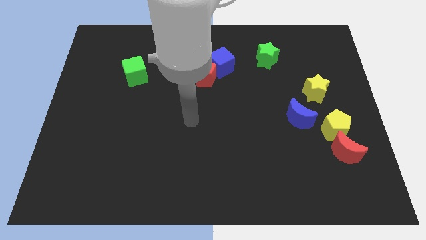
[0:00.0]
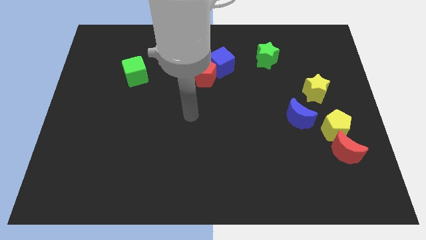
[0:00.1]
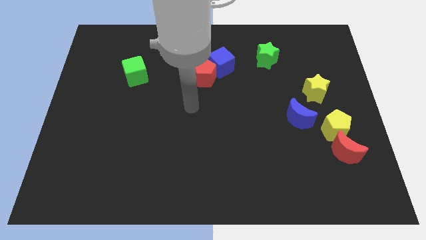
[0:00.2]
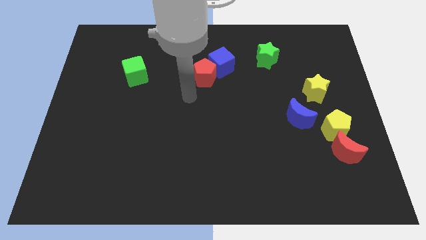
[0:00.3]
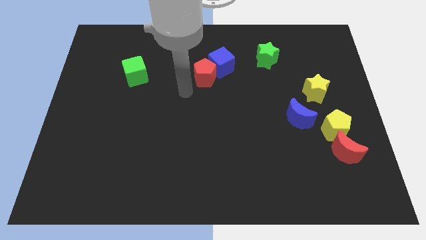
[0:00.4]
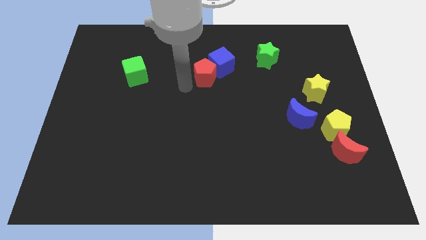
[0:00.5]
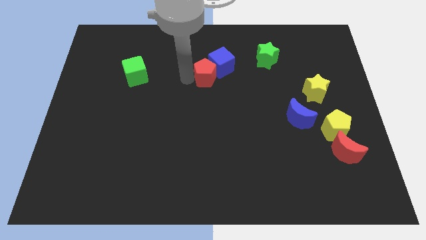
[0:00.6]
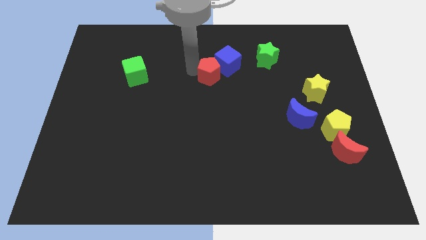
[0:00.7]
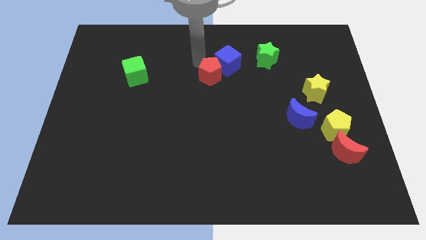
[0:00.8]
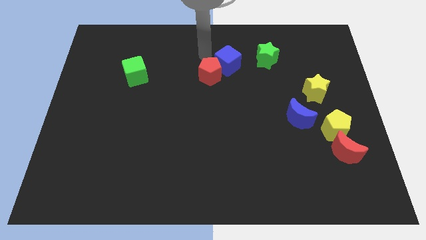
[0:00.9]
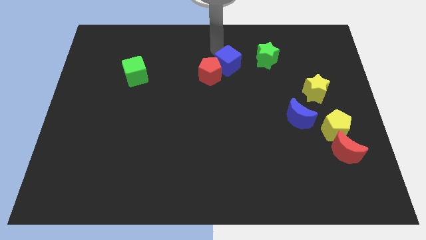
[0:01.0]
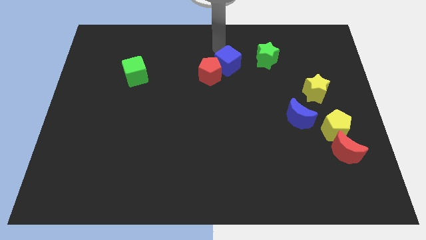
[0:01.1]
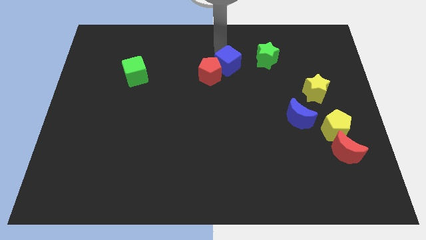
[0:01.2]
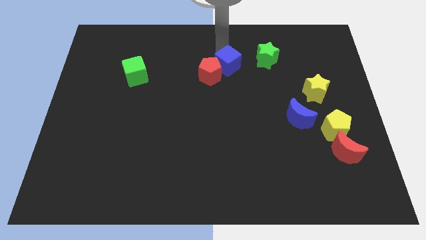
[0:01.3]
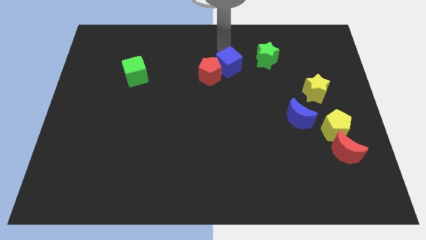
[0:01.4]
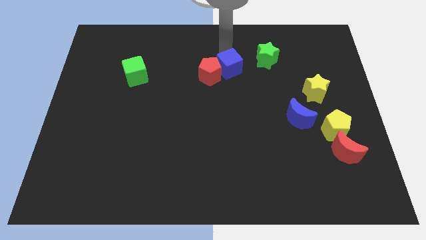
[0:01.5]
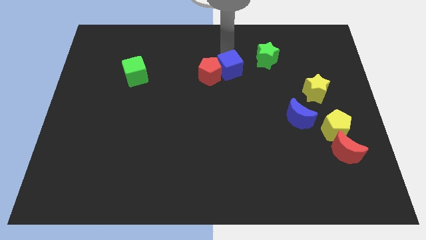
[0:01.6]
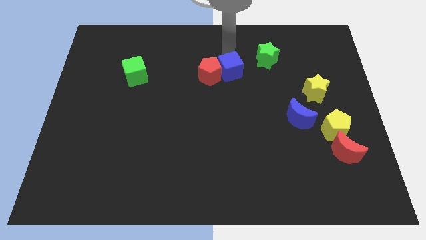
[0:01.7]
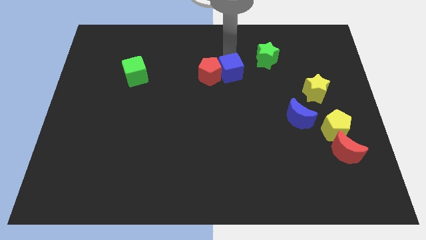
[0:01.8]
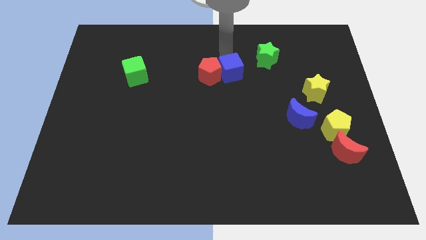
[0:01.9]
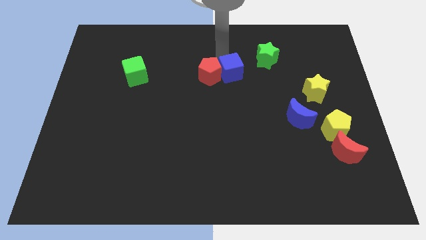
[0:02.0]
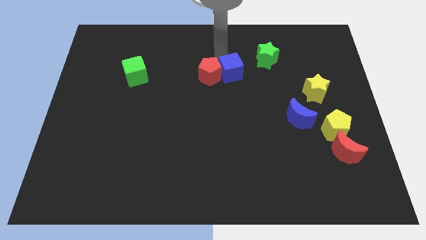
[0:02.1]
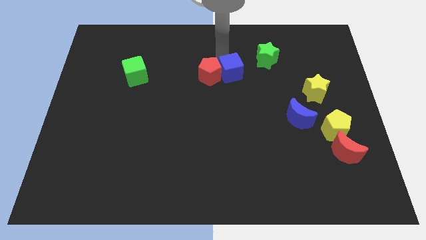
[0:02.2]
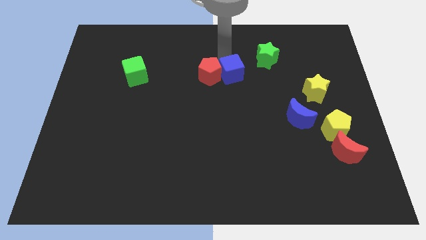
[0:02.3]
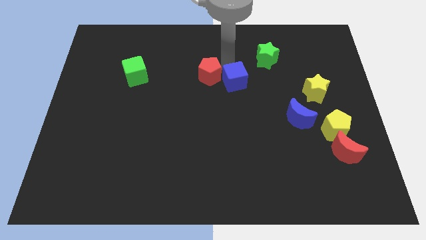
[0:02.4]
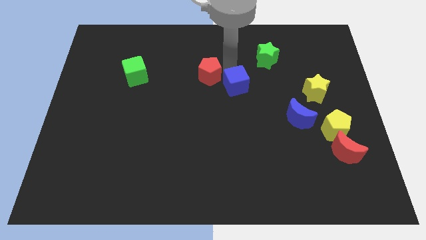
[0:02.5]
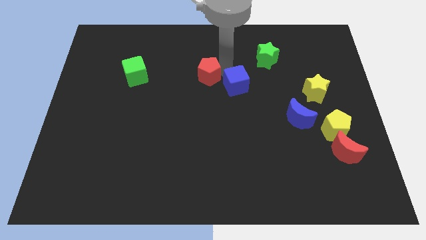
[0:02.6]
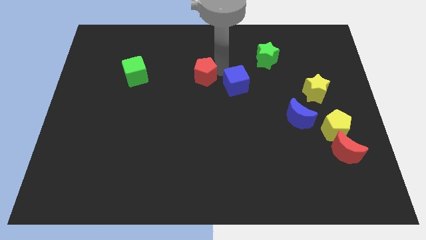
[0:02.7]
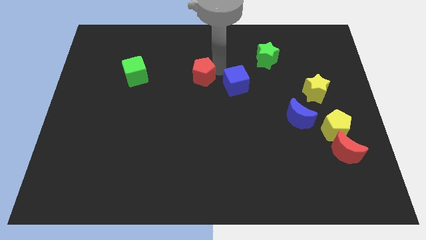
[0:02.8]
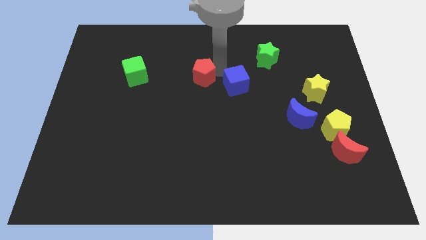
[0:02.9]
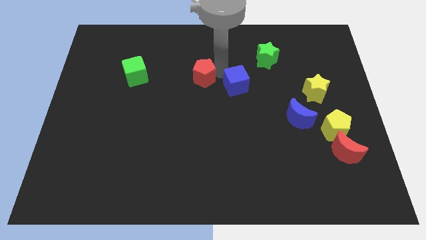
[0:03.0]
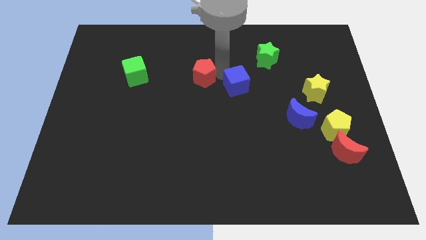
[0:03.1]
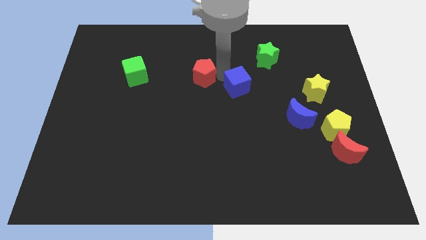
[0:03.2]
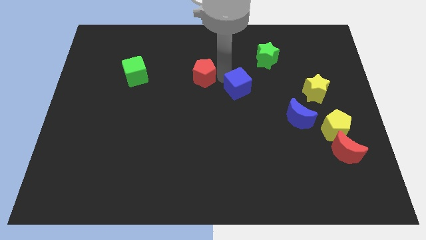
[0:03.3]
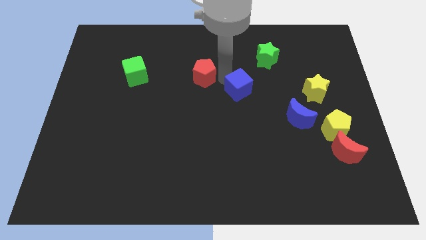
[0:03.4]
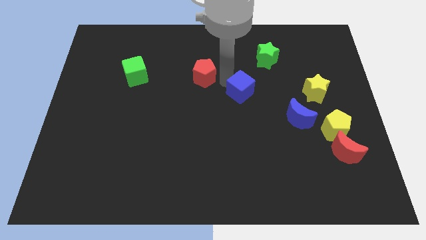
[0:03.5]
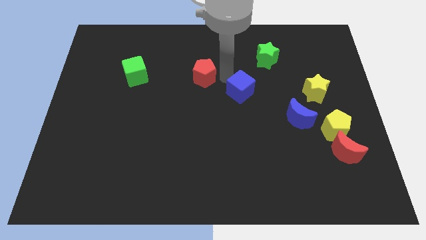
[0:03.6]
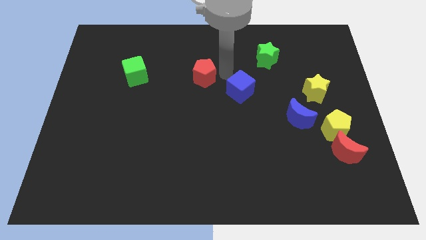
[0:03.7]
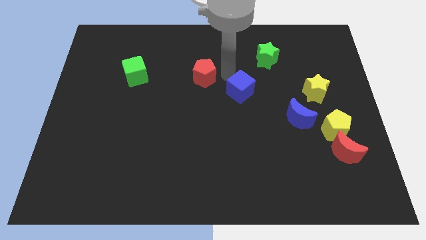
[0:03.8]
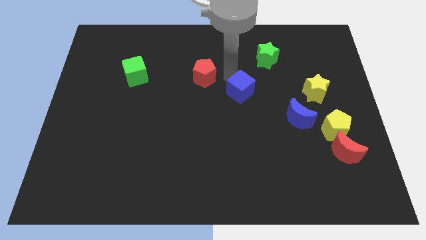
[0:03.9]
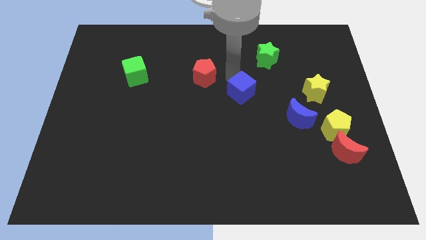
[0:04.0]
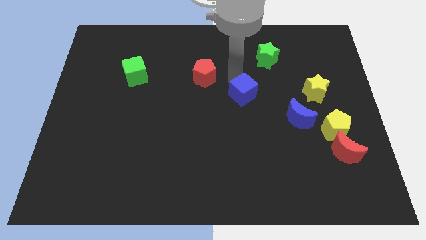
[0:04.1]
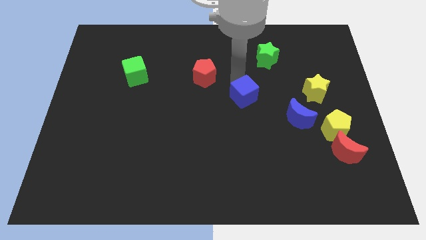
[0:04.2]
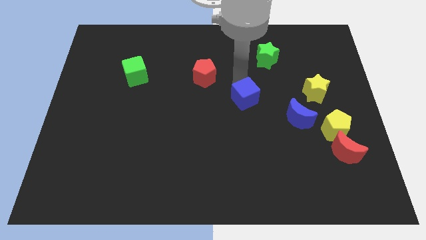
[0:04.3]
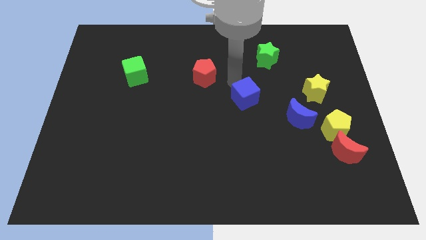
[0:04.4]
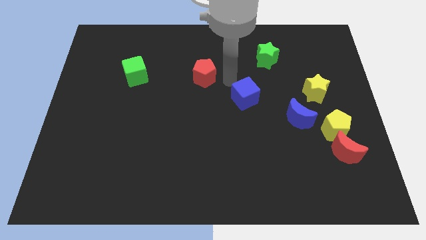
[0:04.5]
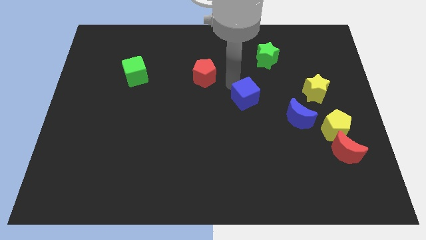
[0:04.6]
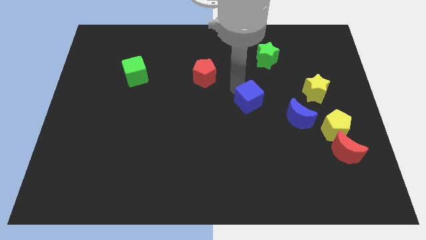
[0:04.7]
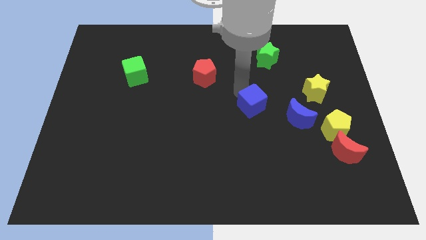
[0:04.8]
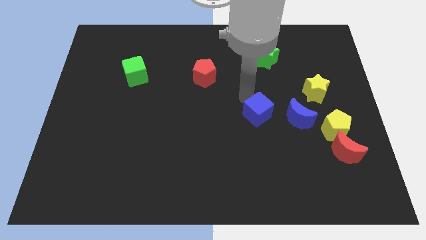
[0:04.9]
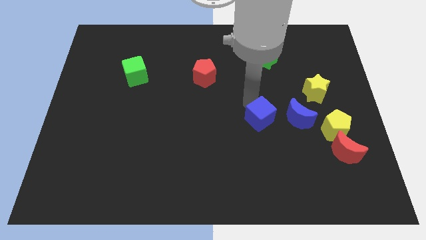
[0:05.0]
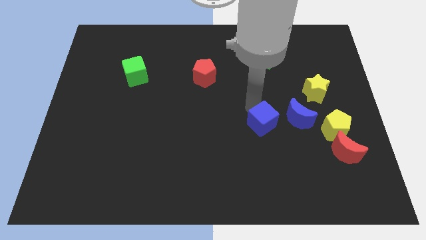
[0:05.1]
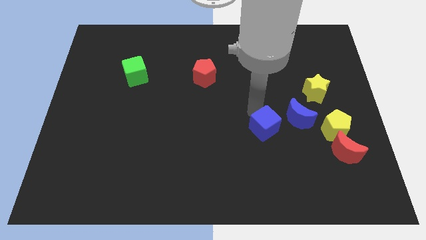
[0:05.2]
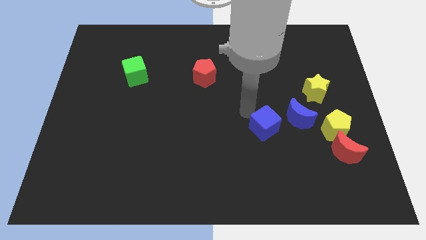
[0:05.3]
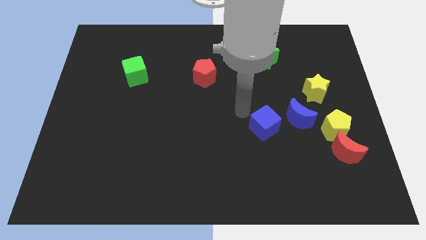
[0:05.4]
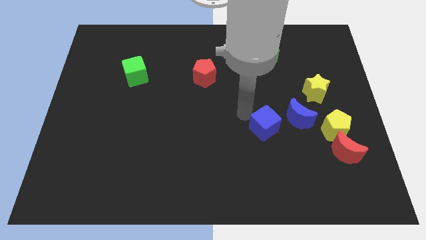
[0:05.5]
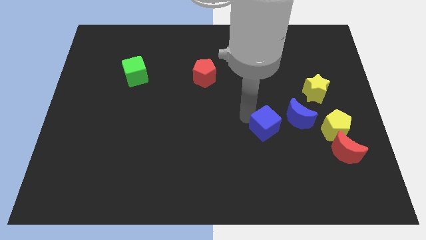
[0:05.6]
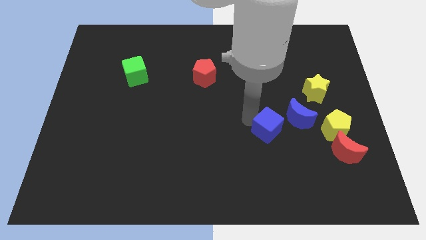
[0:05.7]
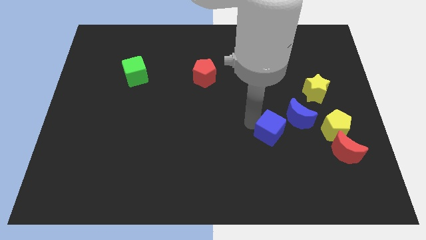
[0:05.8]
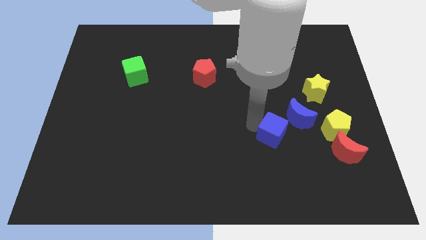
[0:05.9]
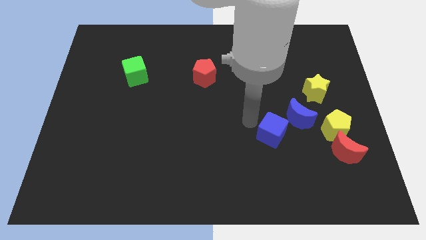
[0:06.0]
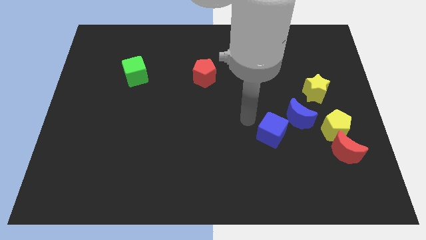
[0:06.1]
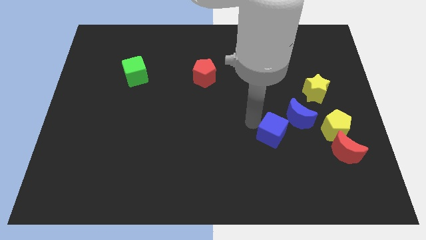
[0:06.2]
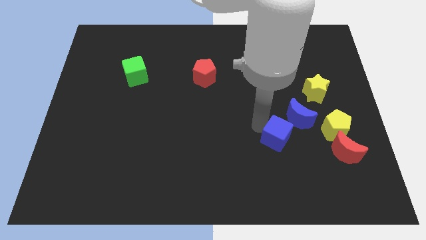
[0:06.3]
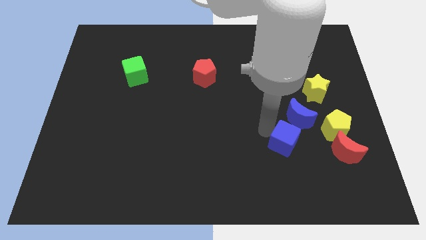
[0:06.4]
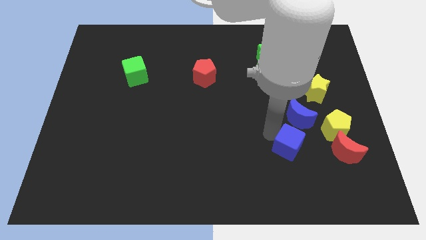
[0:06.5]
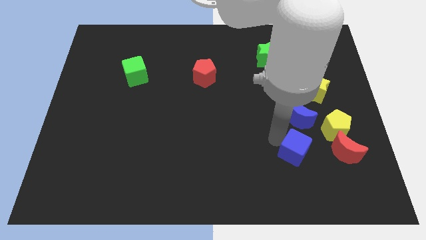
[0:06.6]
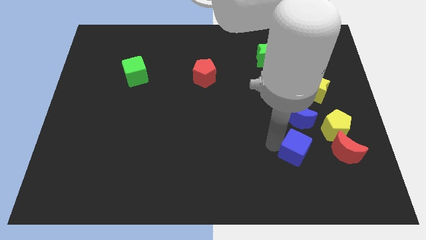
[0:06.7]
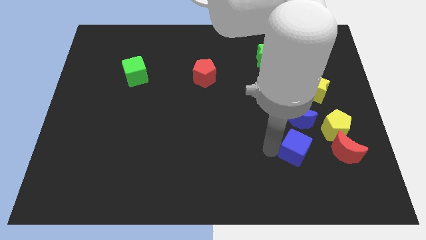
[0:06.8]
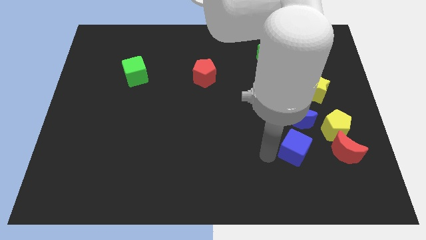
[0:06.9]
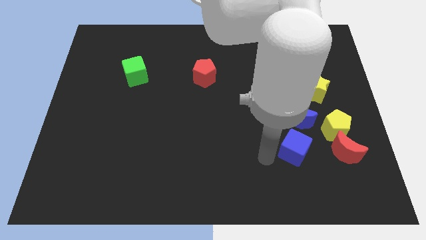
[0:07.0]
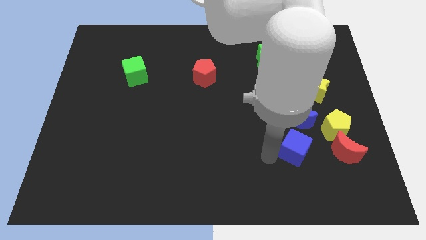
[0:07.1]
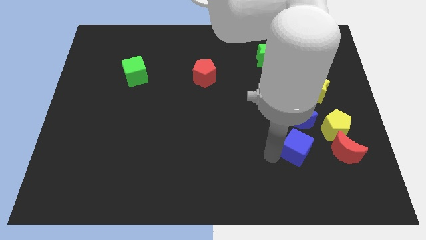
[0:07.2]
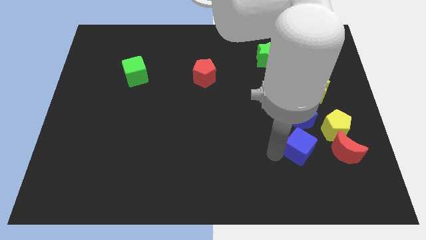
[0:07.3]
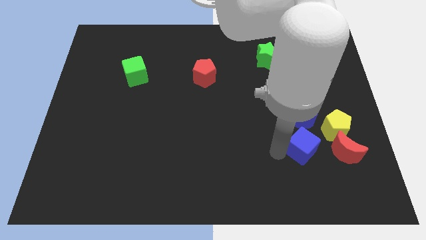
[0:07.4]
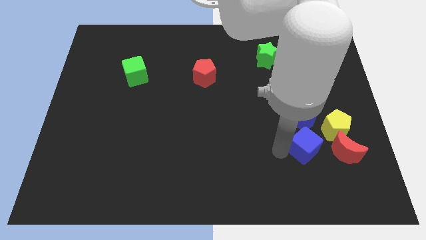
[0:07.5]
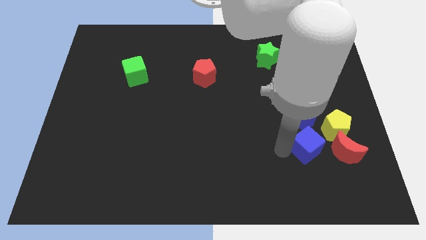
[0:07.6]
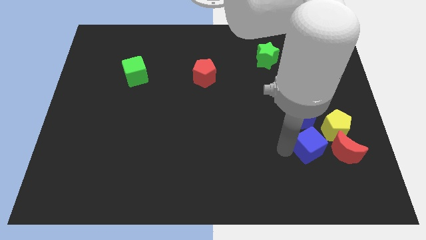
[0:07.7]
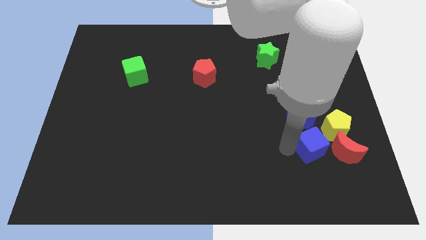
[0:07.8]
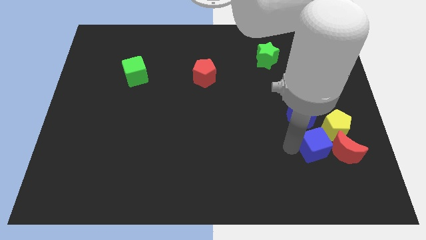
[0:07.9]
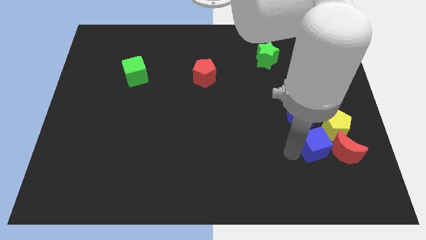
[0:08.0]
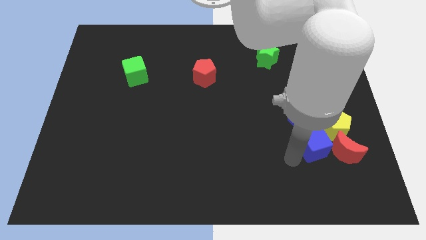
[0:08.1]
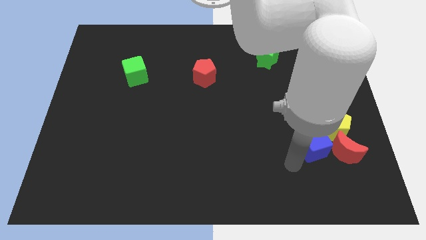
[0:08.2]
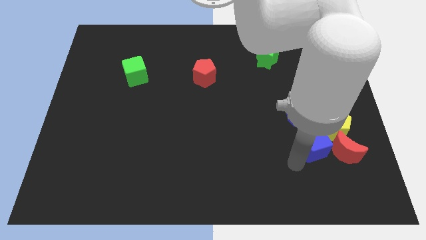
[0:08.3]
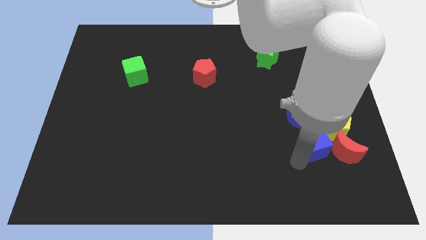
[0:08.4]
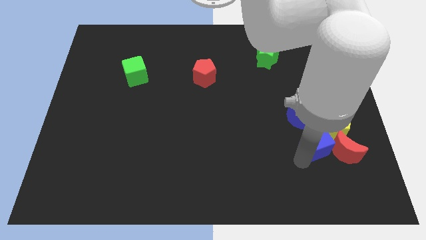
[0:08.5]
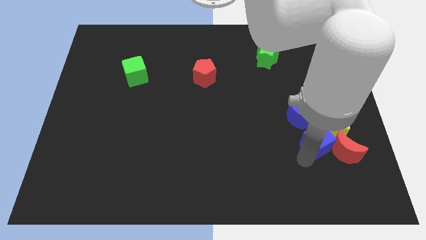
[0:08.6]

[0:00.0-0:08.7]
move the blue cube next to the yellow pentagon
